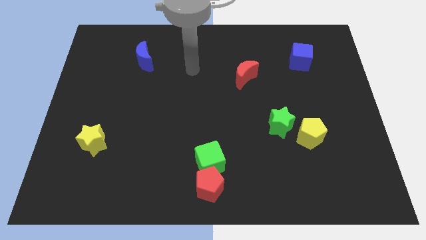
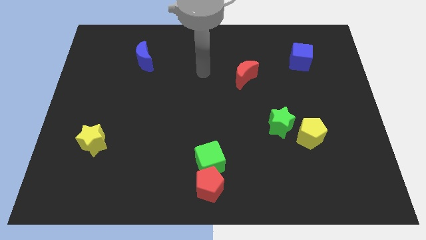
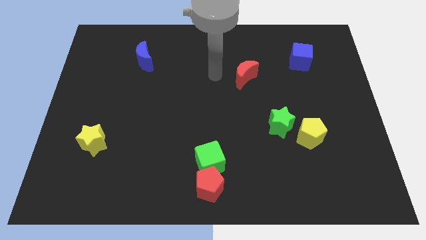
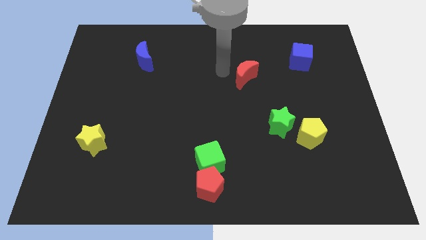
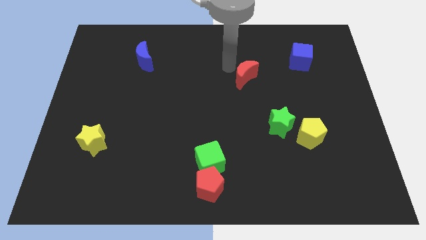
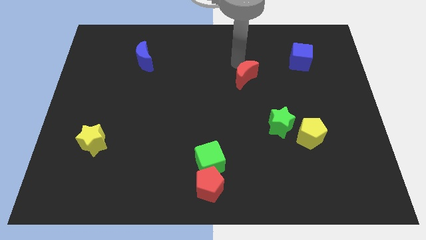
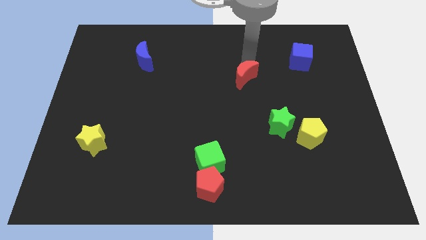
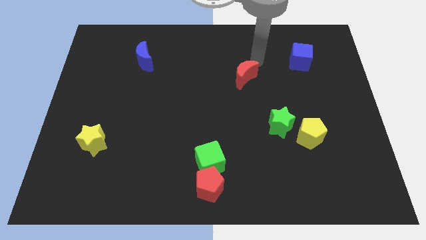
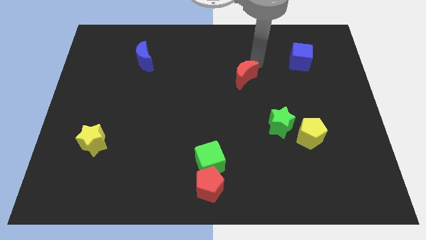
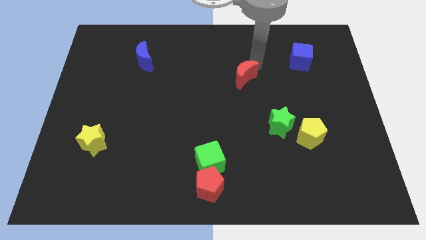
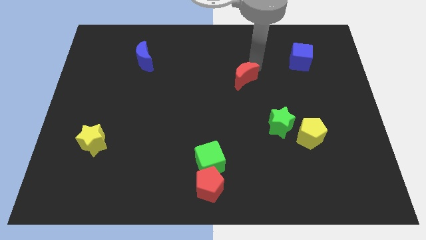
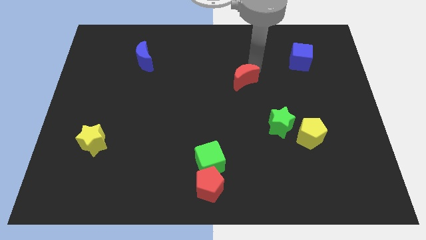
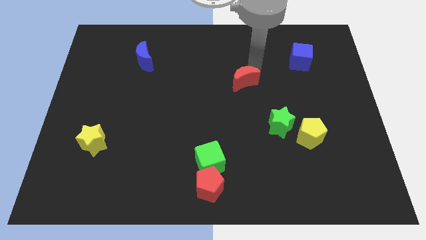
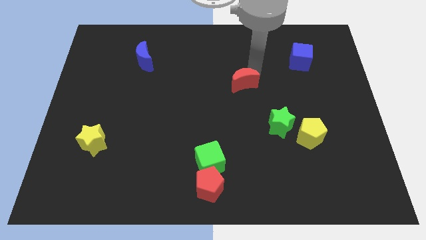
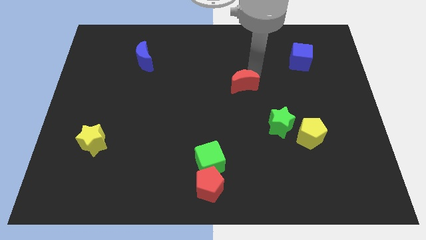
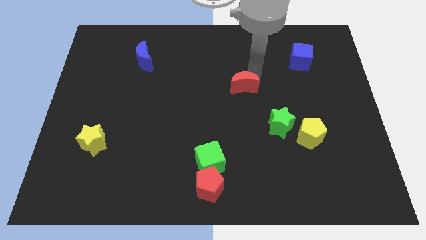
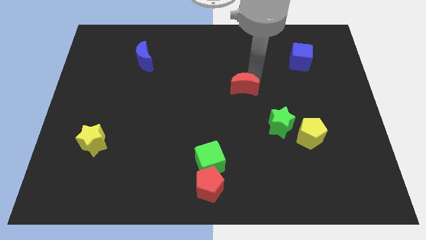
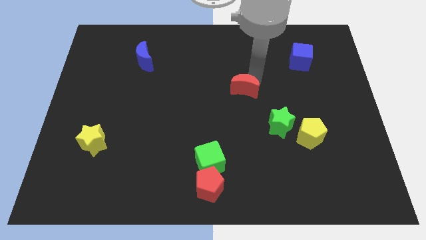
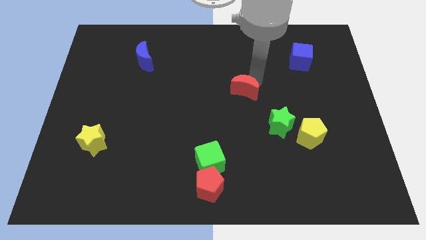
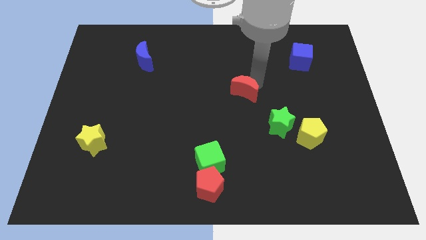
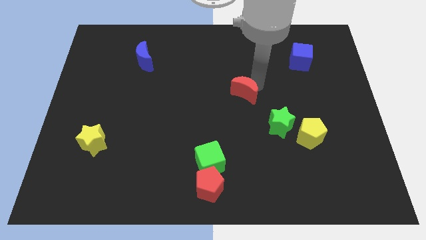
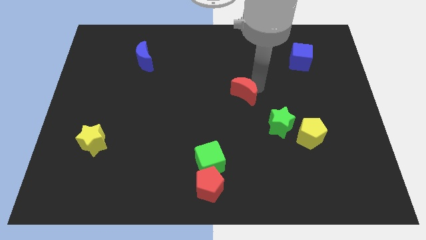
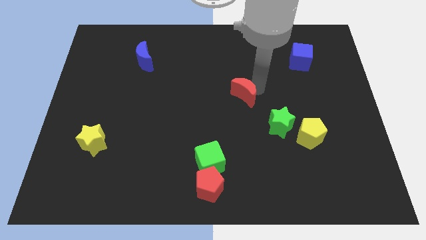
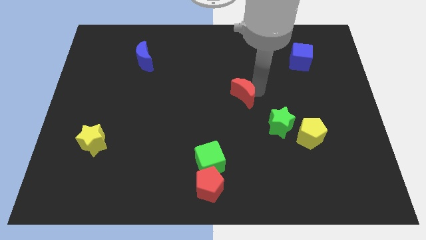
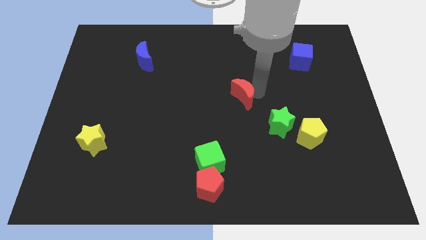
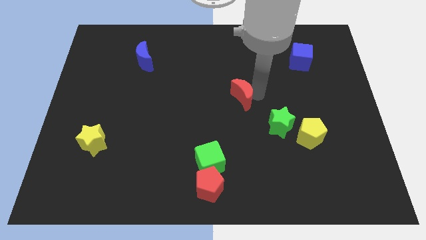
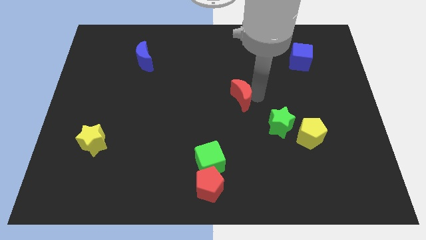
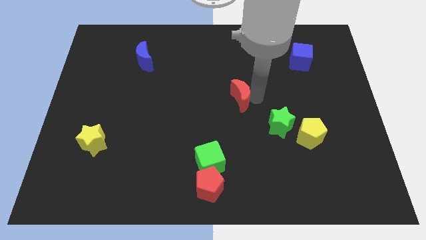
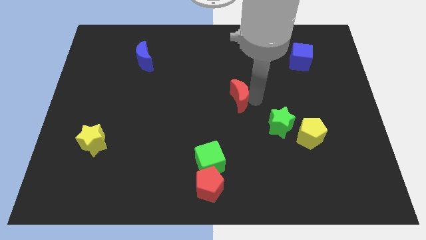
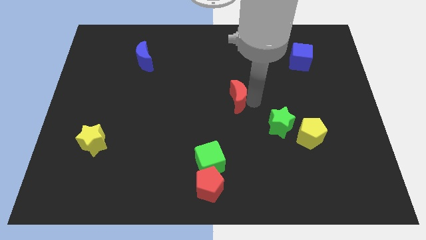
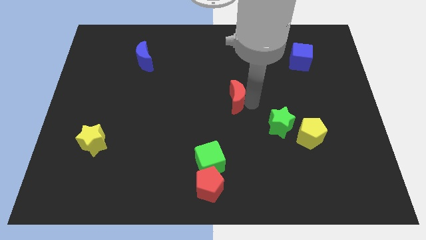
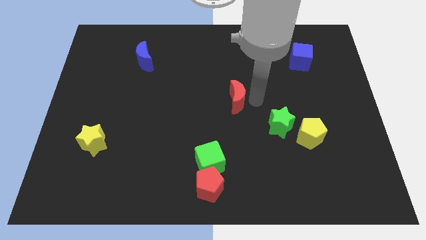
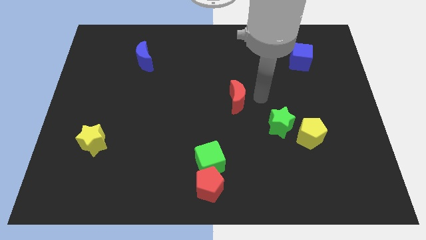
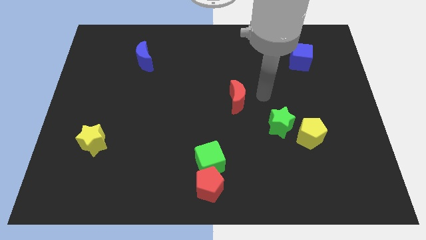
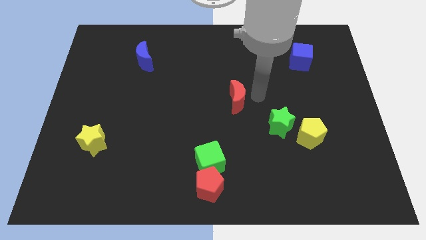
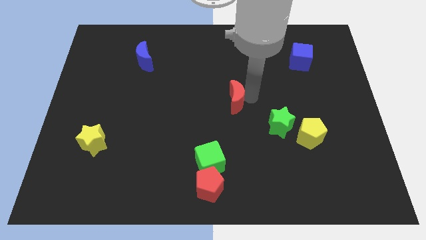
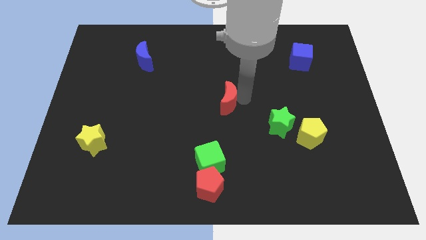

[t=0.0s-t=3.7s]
slightly move the red moon down and then left

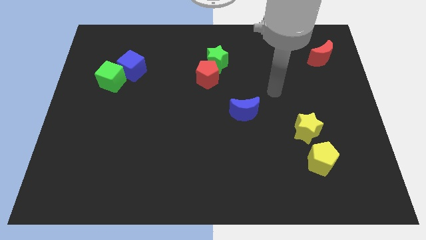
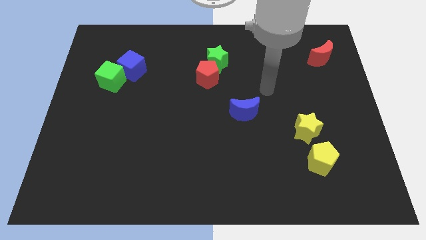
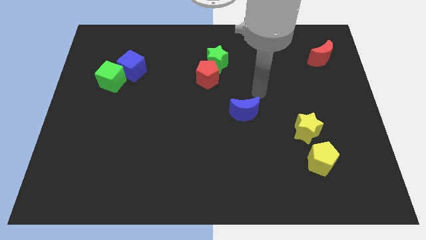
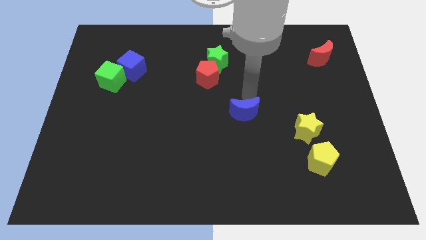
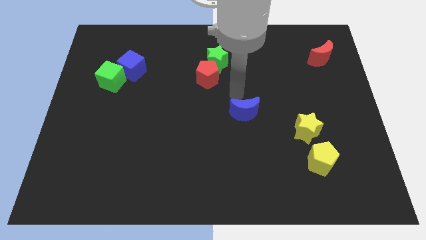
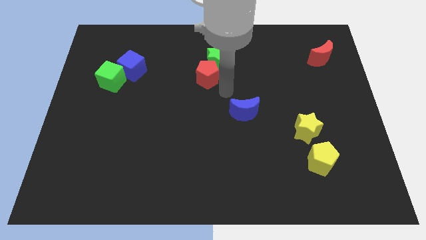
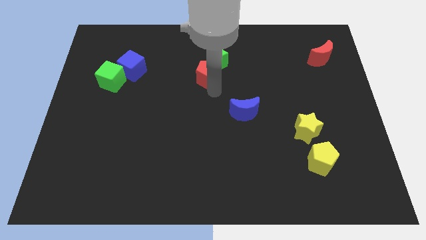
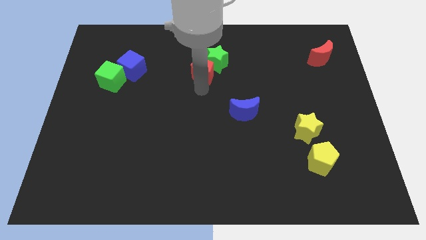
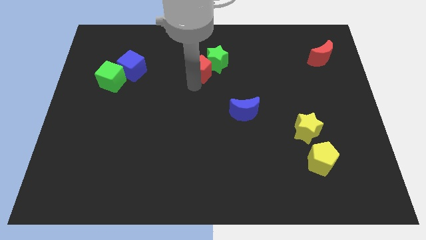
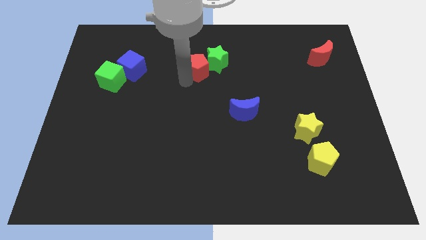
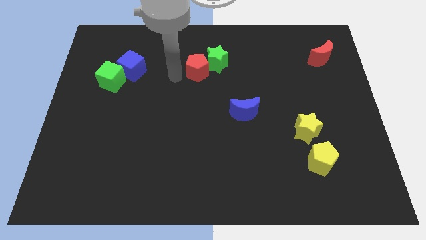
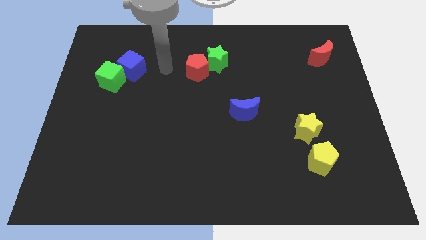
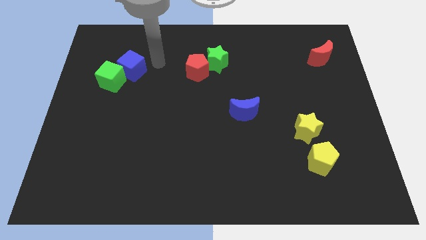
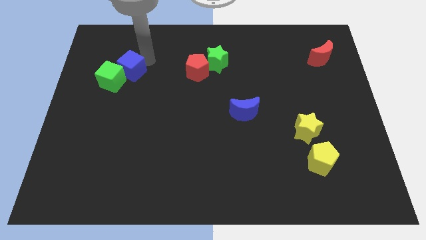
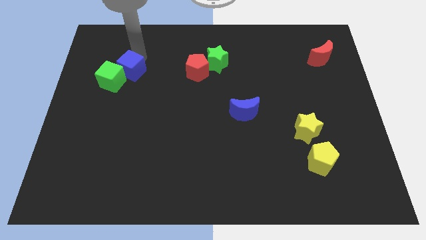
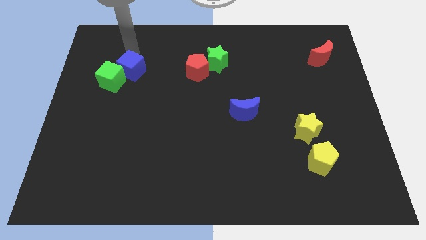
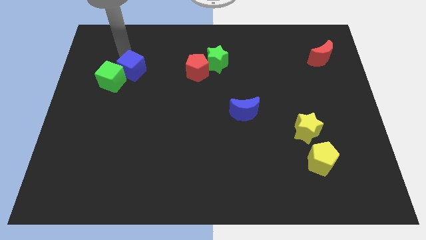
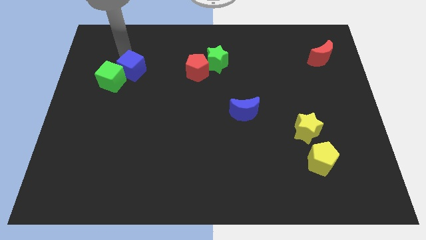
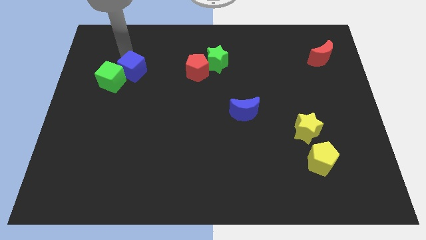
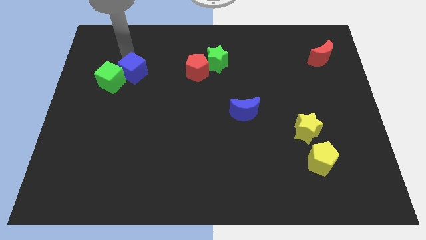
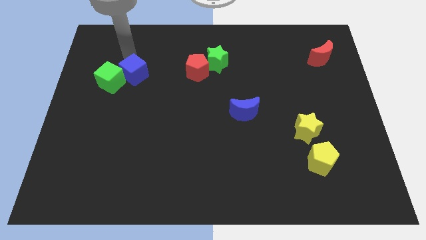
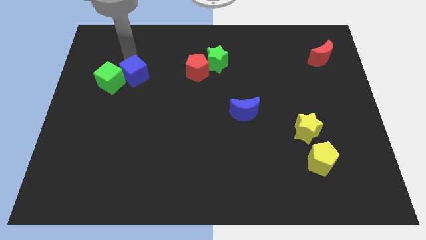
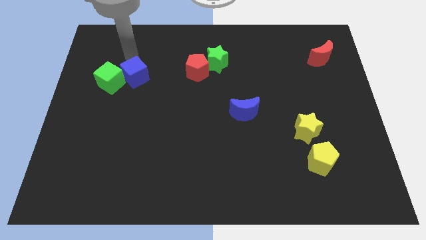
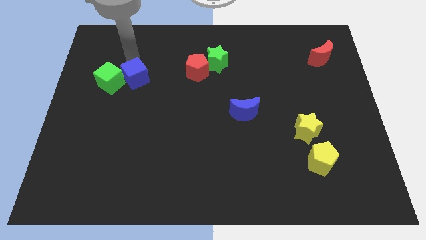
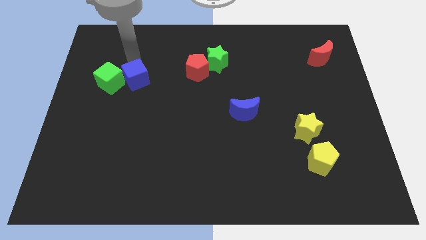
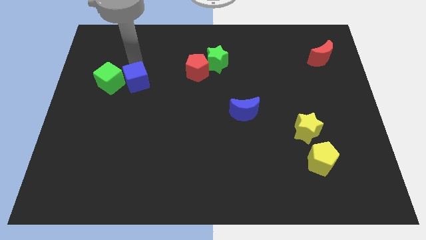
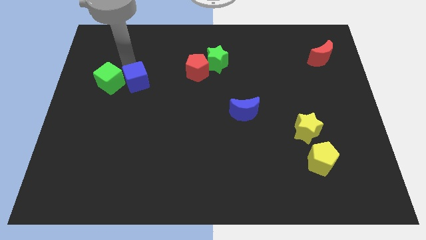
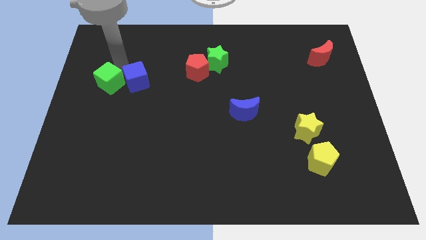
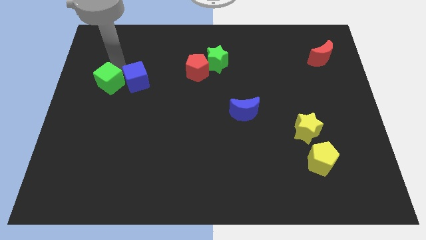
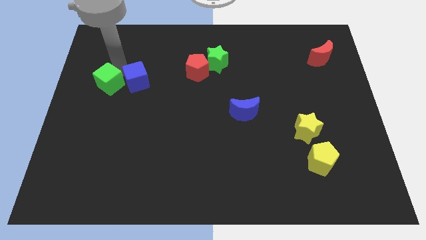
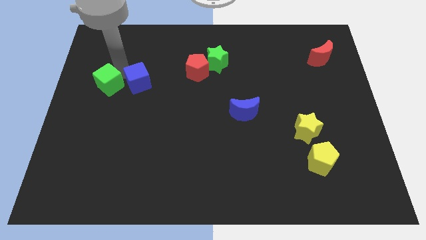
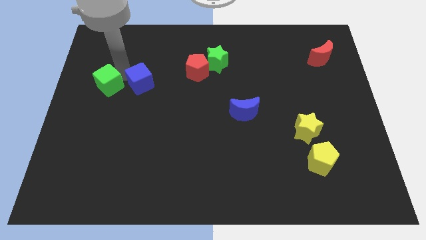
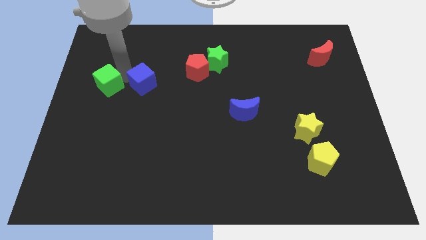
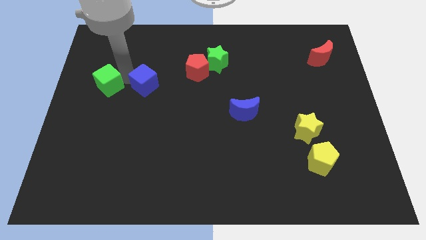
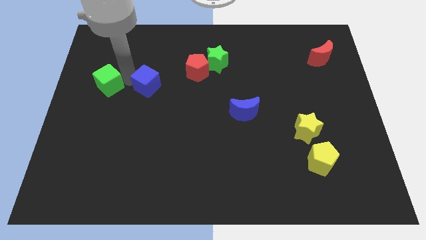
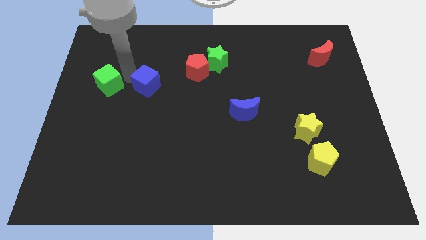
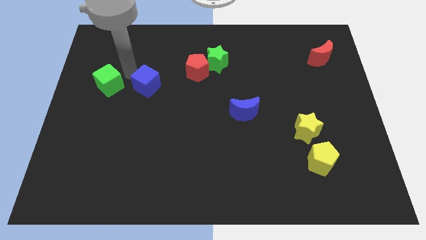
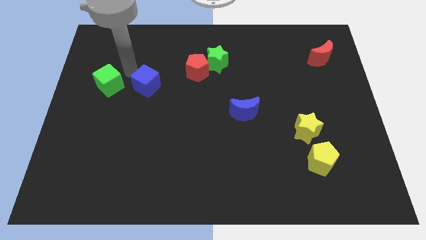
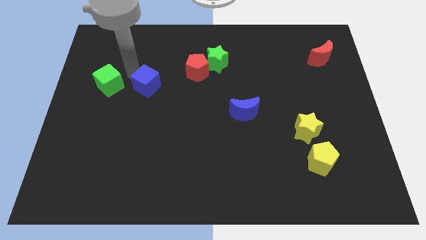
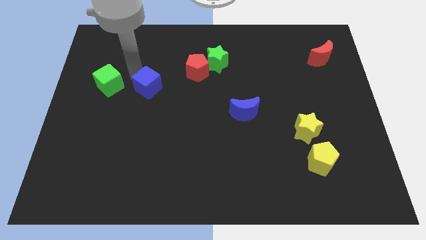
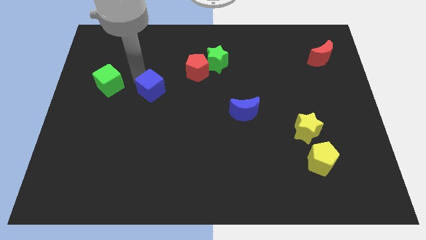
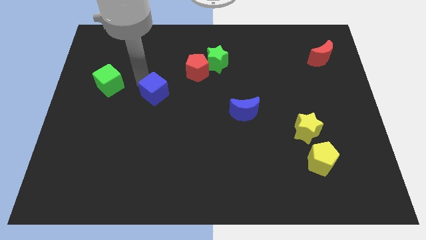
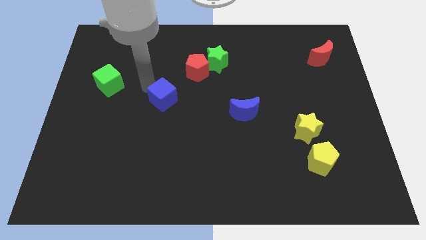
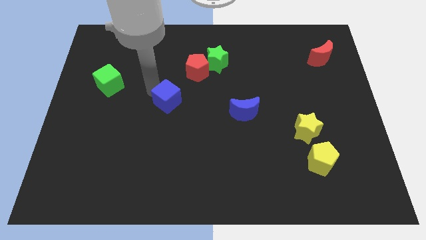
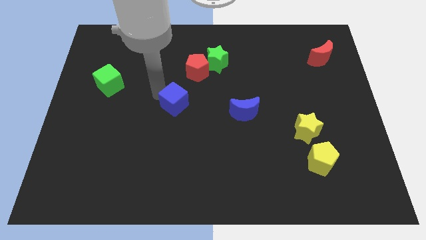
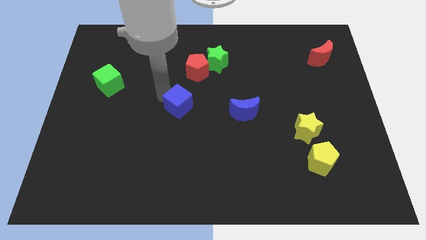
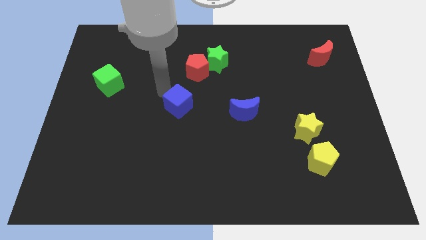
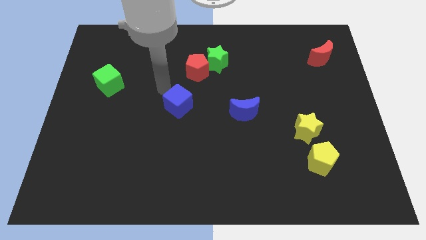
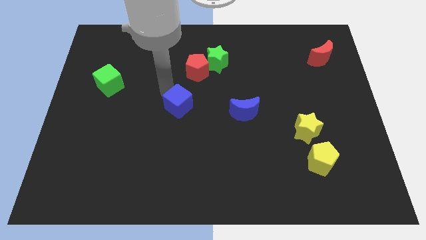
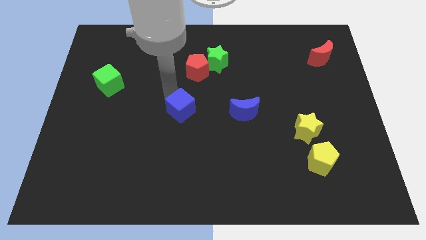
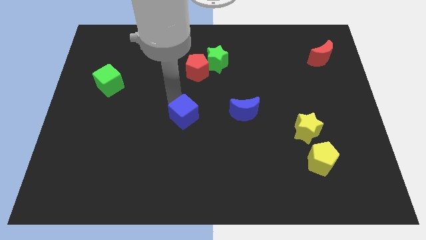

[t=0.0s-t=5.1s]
move the blue cube diagonally downwards and right
